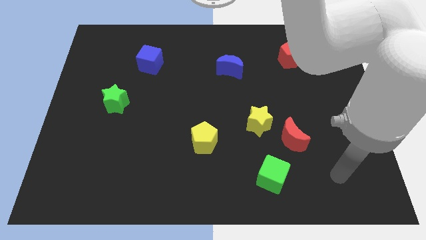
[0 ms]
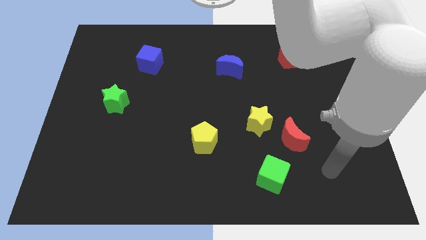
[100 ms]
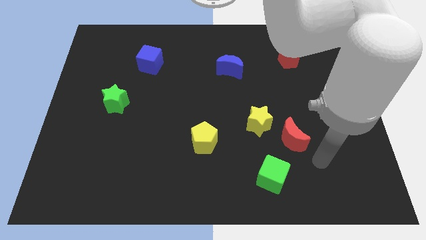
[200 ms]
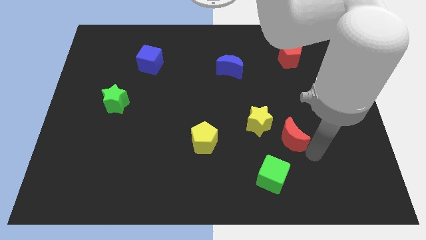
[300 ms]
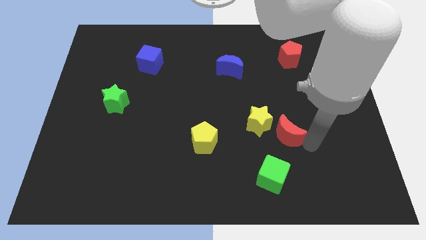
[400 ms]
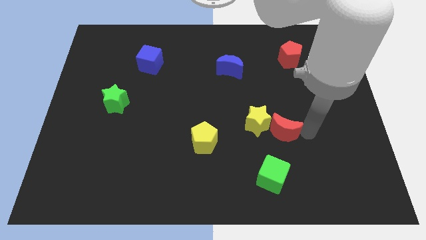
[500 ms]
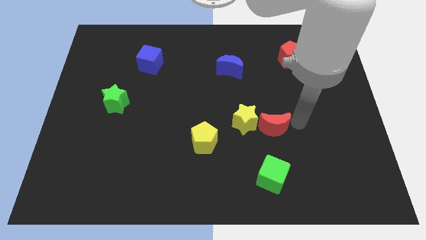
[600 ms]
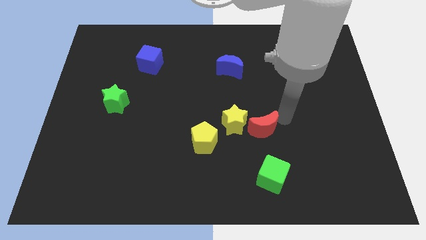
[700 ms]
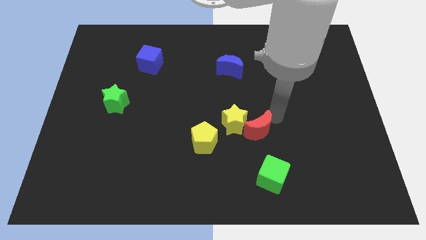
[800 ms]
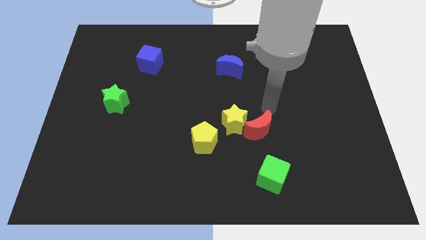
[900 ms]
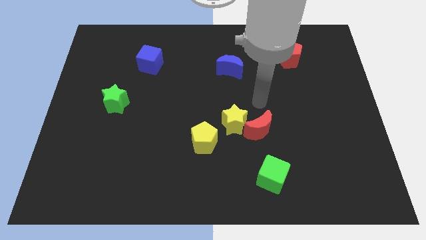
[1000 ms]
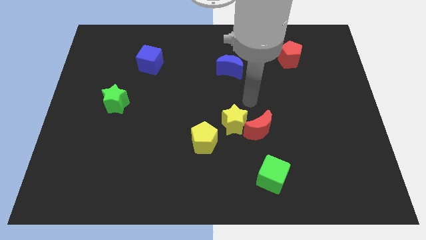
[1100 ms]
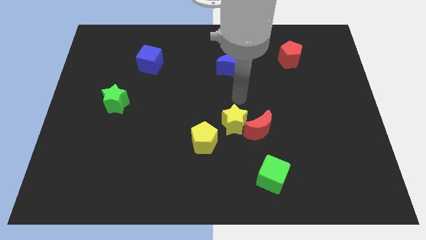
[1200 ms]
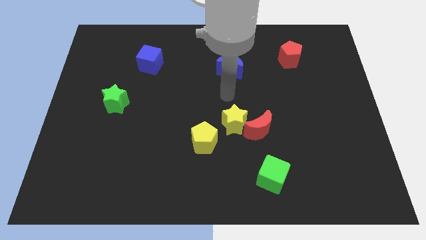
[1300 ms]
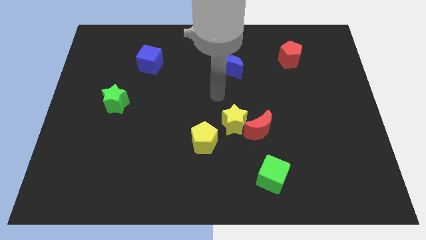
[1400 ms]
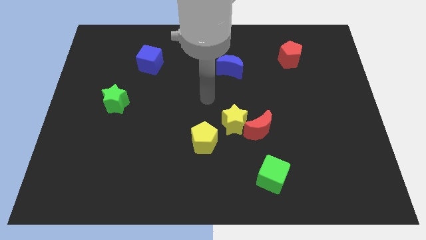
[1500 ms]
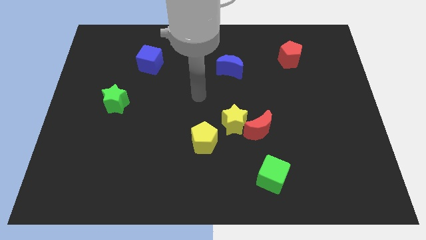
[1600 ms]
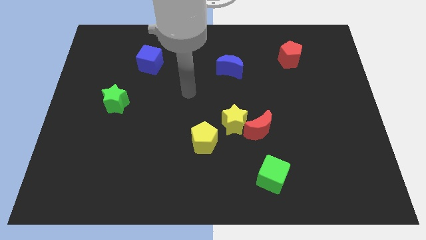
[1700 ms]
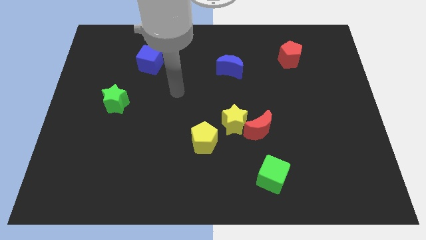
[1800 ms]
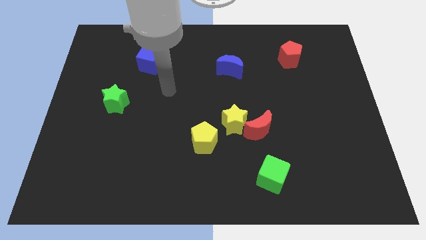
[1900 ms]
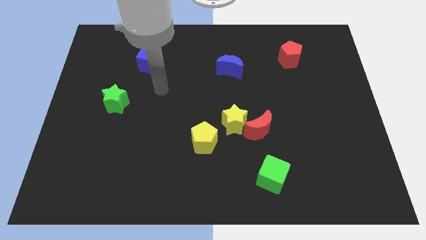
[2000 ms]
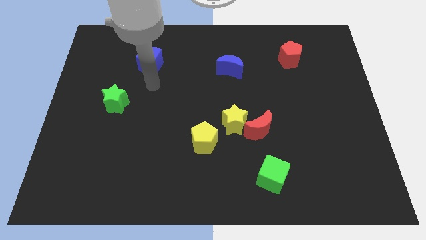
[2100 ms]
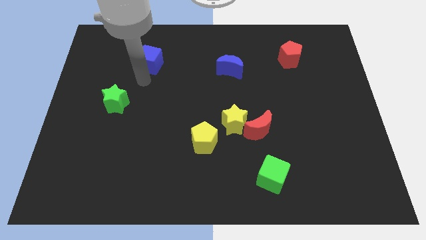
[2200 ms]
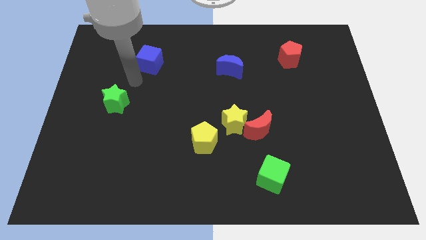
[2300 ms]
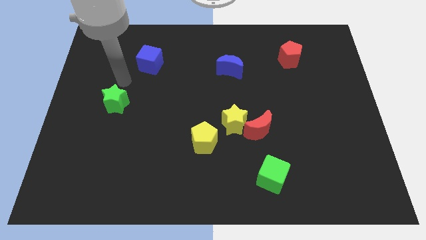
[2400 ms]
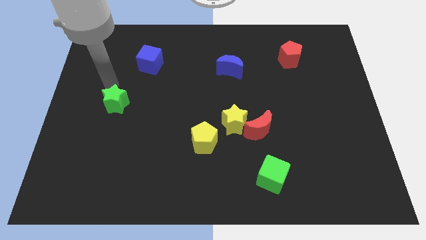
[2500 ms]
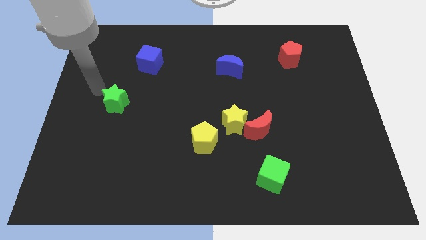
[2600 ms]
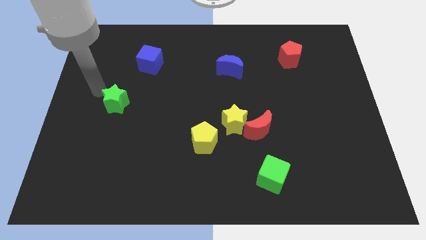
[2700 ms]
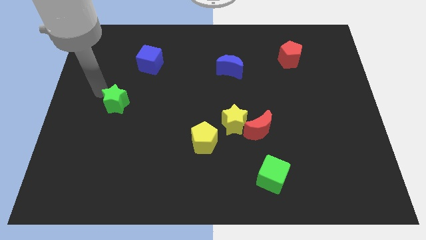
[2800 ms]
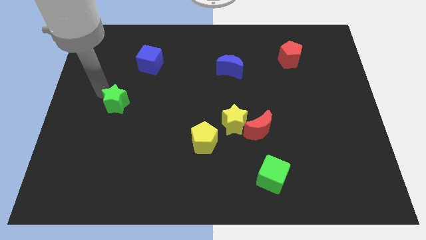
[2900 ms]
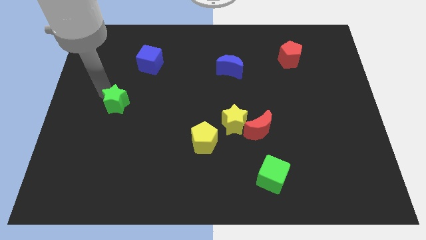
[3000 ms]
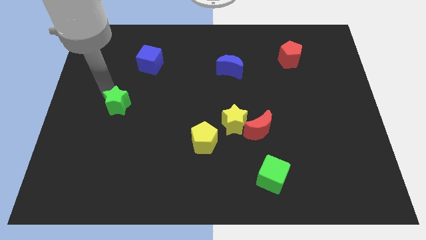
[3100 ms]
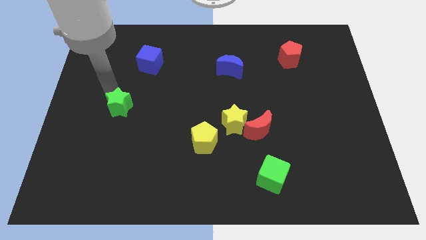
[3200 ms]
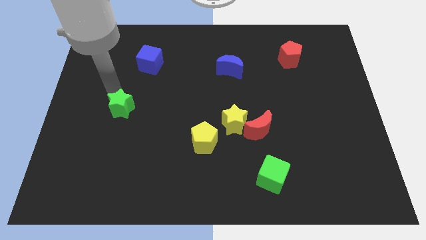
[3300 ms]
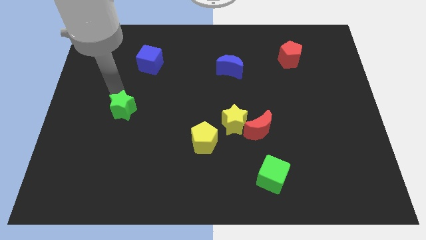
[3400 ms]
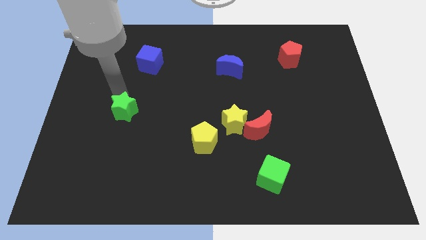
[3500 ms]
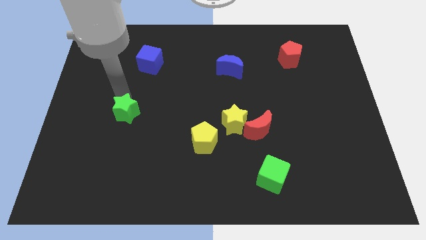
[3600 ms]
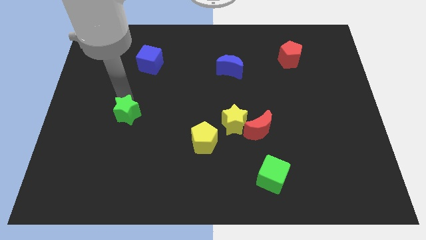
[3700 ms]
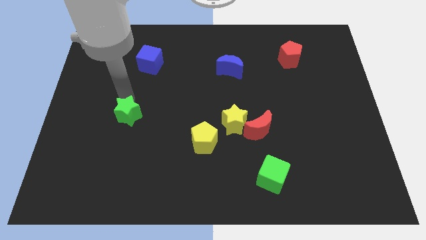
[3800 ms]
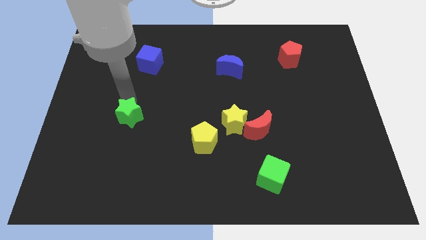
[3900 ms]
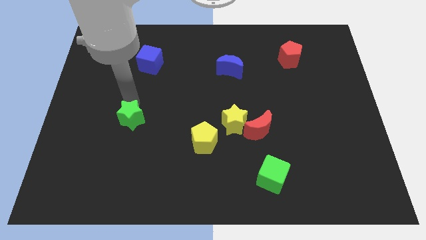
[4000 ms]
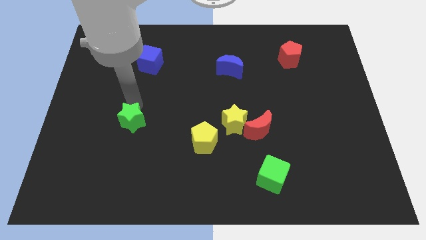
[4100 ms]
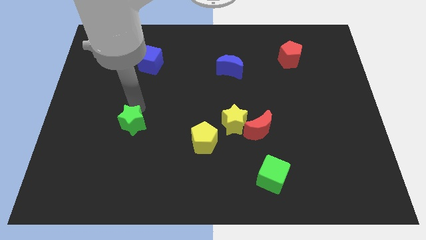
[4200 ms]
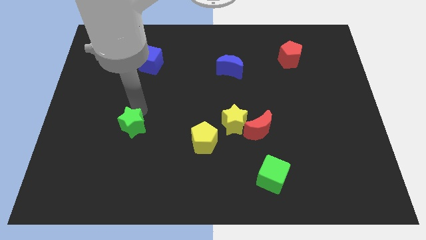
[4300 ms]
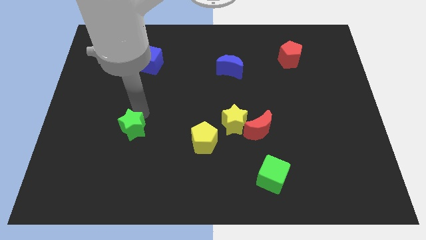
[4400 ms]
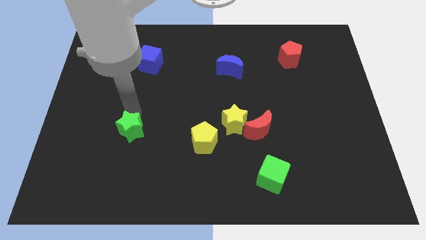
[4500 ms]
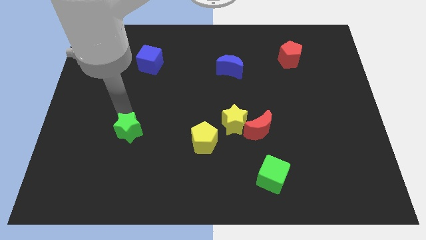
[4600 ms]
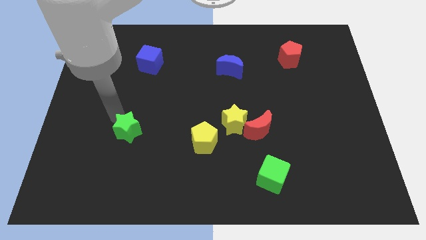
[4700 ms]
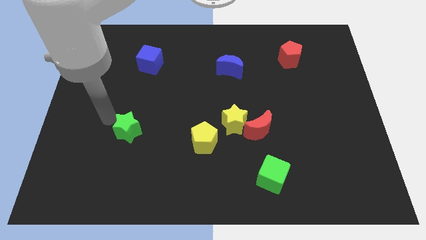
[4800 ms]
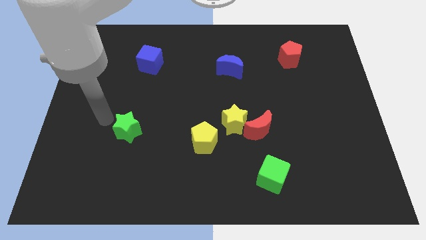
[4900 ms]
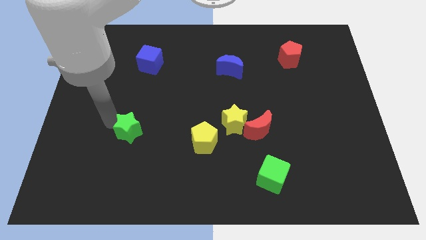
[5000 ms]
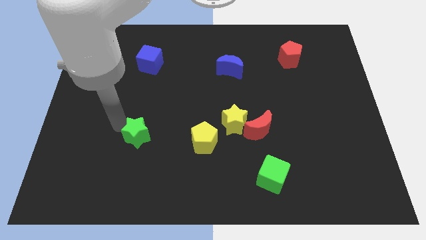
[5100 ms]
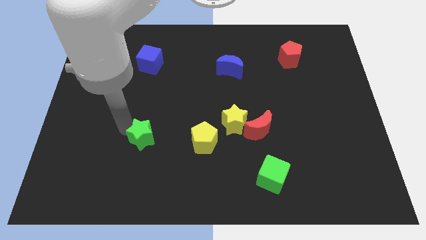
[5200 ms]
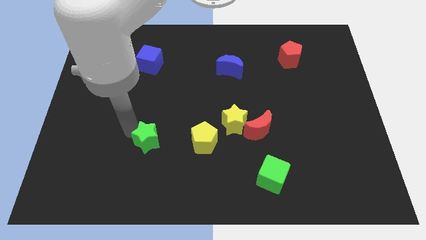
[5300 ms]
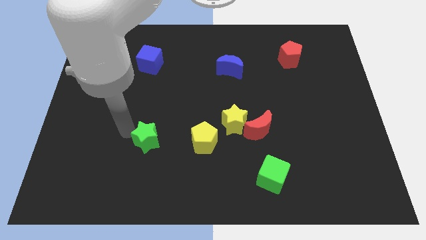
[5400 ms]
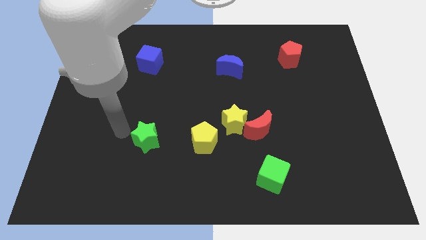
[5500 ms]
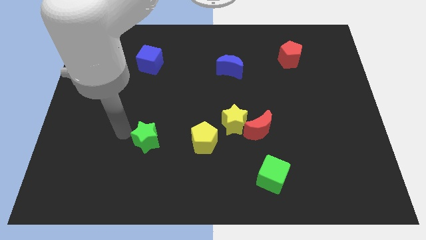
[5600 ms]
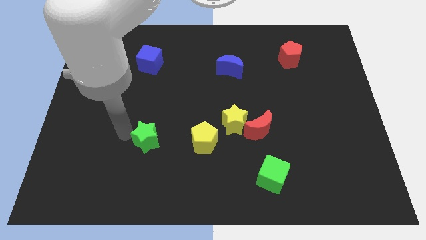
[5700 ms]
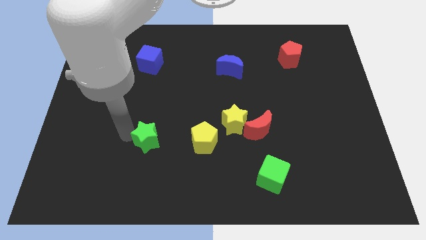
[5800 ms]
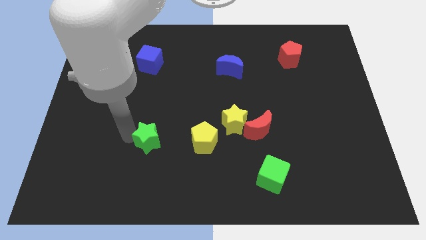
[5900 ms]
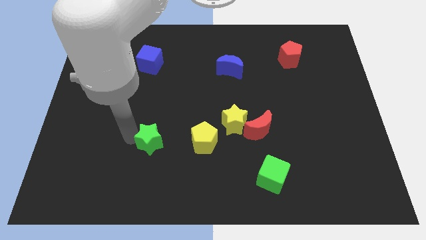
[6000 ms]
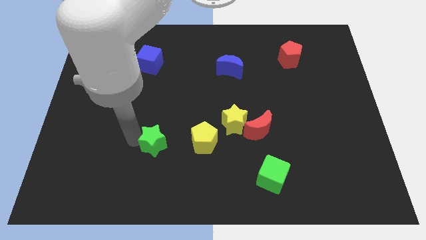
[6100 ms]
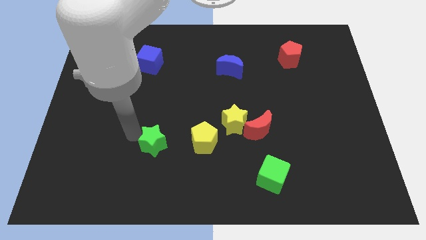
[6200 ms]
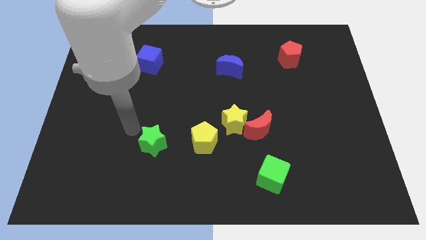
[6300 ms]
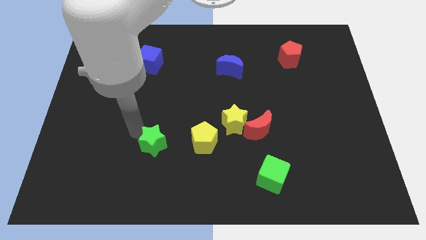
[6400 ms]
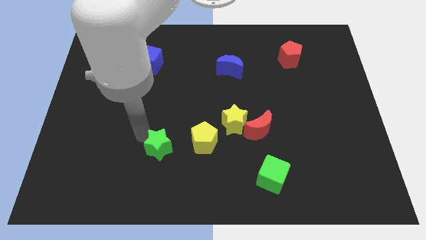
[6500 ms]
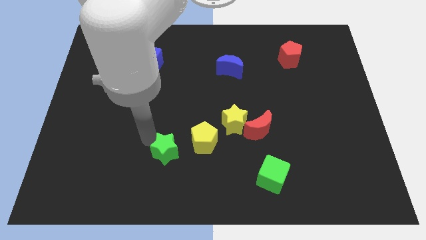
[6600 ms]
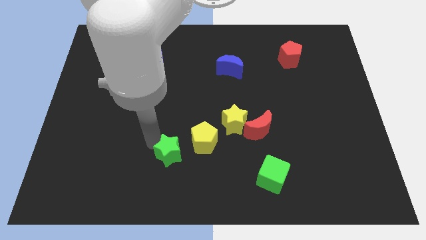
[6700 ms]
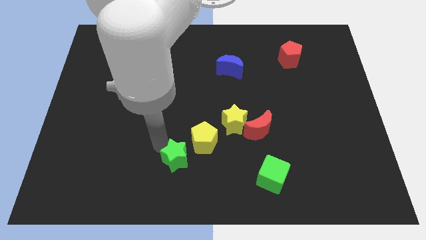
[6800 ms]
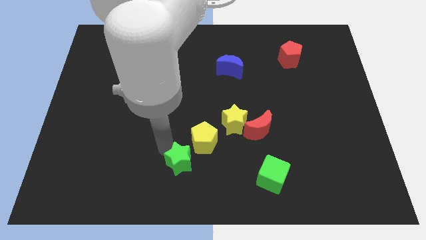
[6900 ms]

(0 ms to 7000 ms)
slide the green star to the bottom of the yellow pentagon
